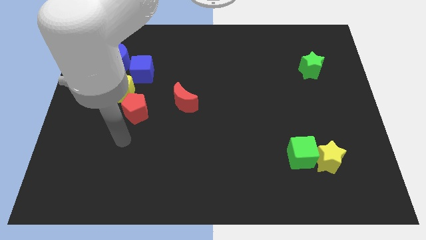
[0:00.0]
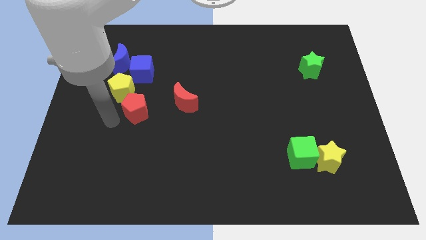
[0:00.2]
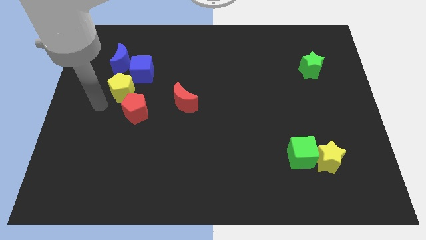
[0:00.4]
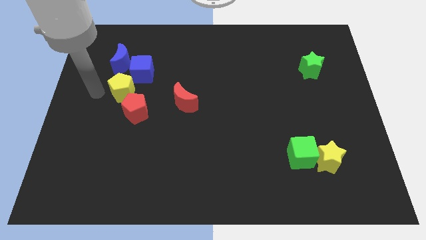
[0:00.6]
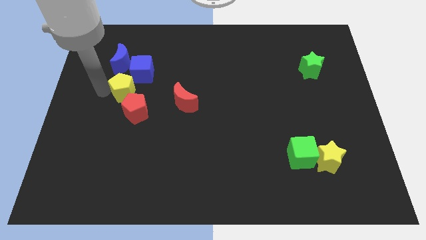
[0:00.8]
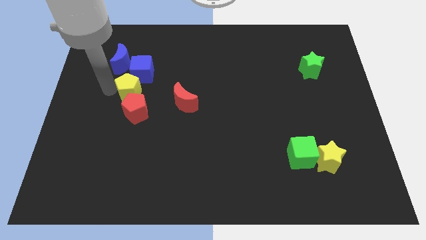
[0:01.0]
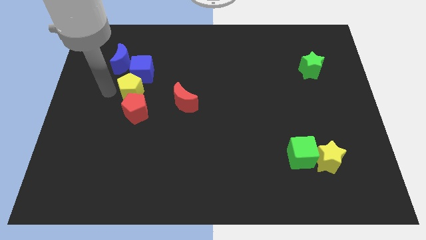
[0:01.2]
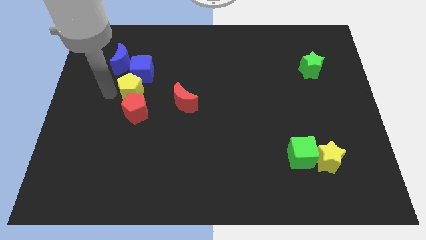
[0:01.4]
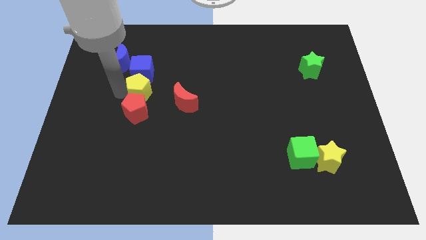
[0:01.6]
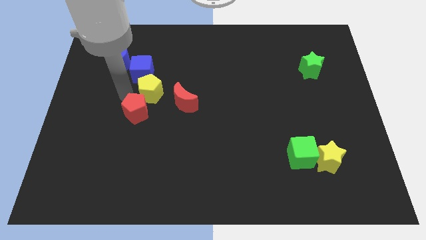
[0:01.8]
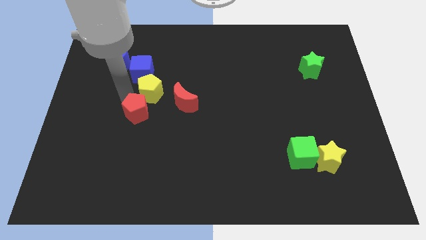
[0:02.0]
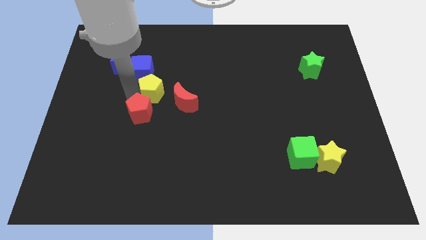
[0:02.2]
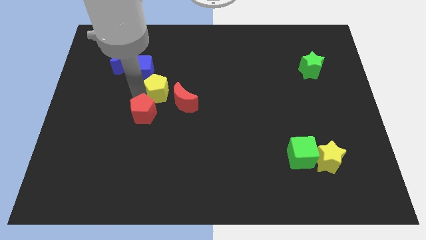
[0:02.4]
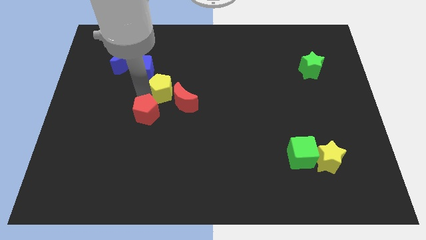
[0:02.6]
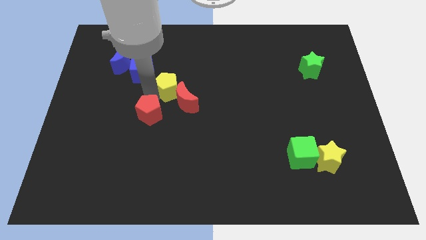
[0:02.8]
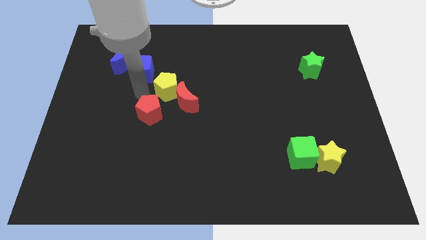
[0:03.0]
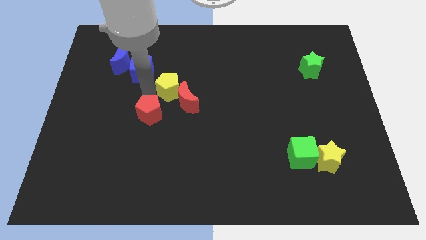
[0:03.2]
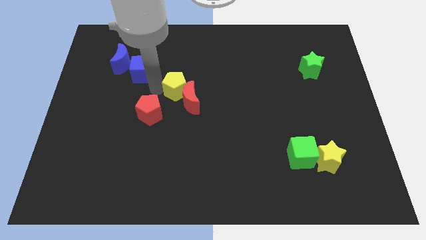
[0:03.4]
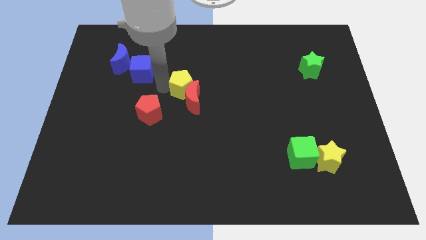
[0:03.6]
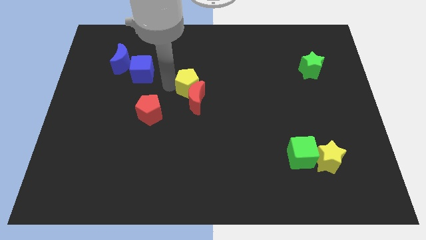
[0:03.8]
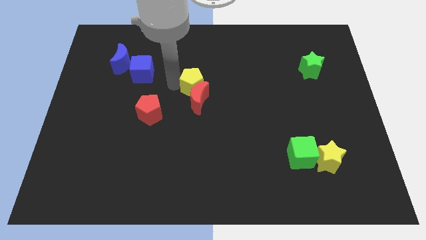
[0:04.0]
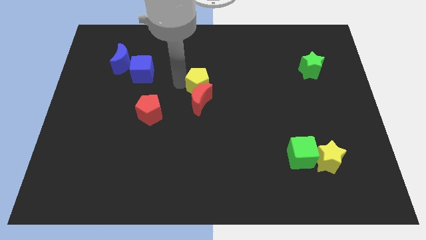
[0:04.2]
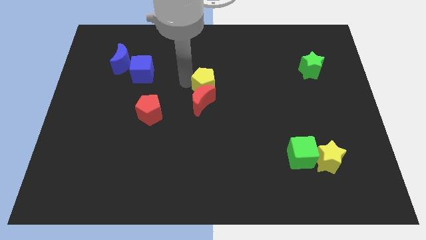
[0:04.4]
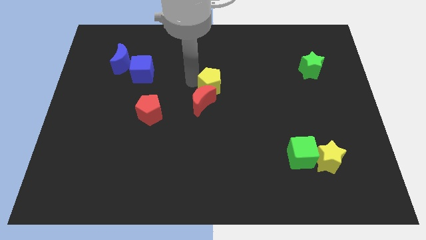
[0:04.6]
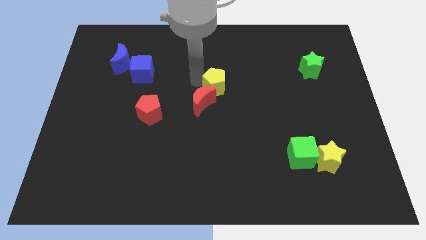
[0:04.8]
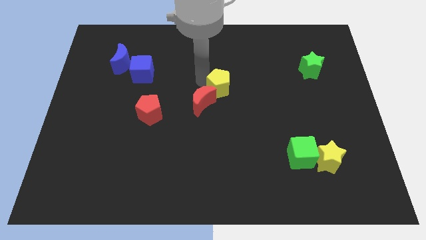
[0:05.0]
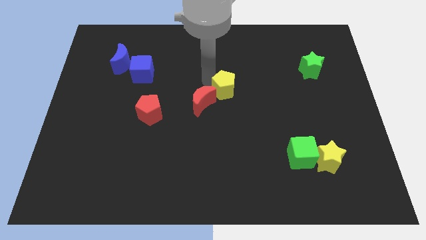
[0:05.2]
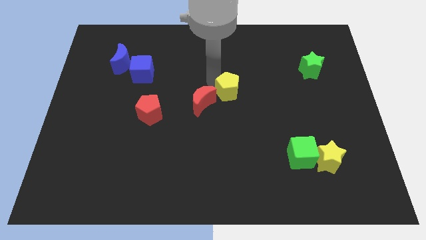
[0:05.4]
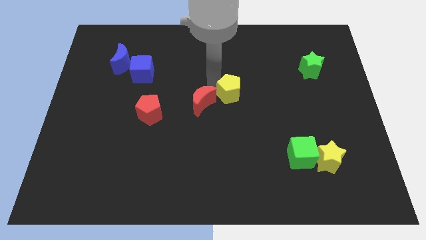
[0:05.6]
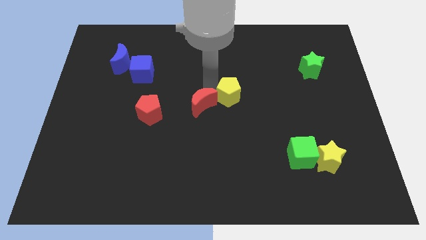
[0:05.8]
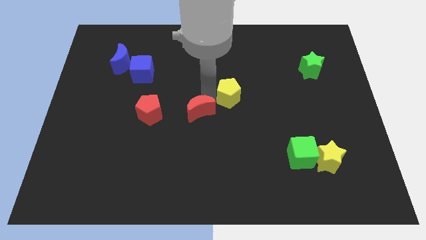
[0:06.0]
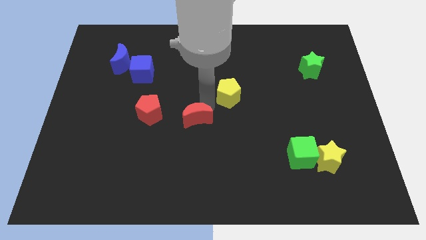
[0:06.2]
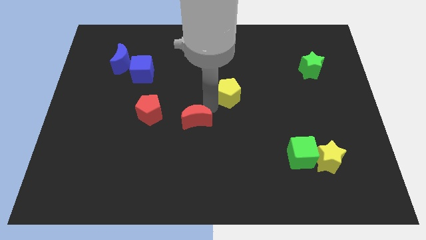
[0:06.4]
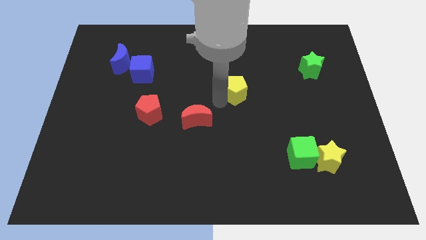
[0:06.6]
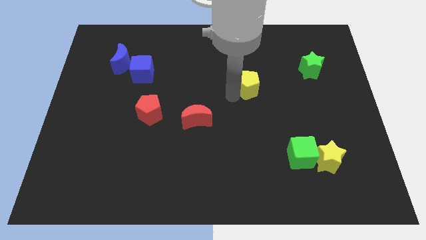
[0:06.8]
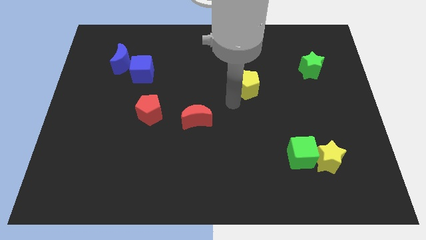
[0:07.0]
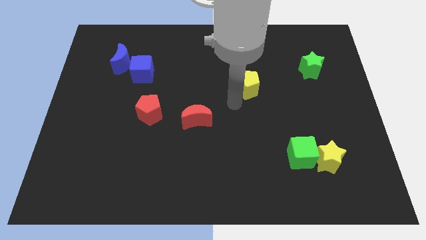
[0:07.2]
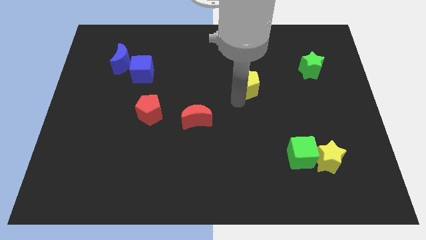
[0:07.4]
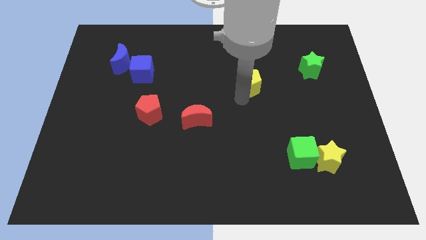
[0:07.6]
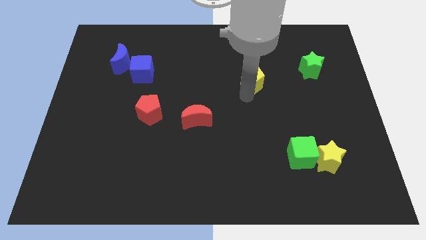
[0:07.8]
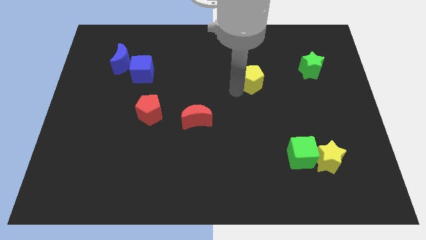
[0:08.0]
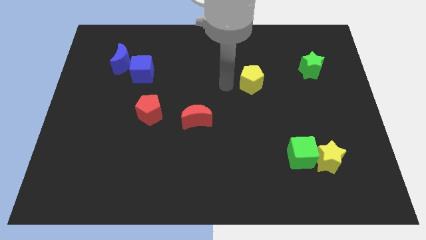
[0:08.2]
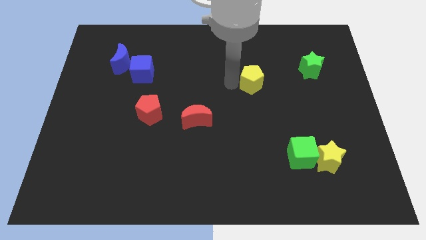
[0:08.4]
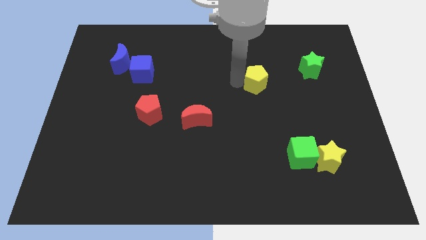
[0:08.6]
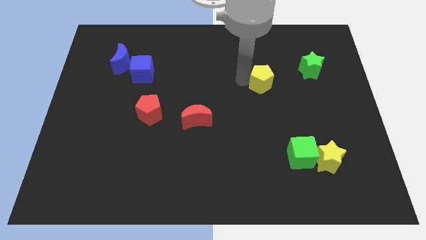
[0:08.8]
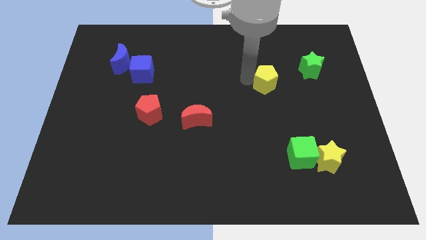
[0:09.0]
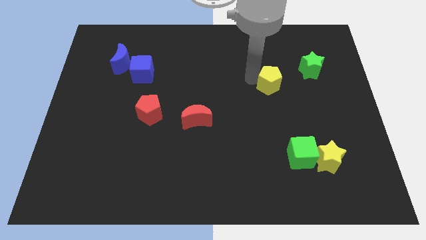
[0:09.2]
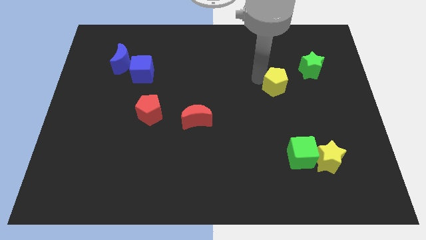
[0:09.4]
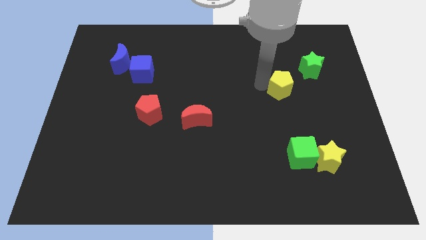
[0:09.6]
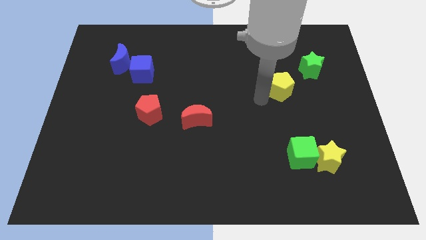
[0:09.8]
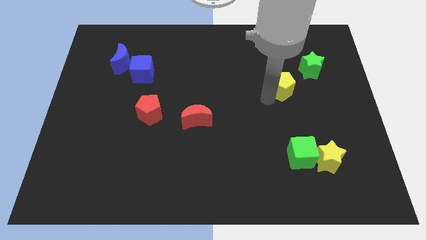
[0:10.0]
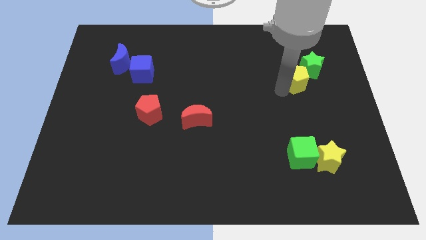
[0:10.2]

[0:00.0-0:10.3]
put the yellow pentagon towards the green star

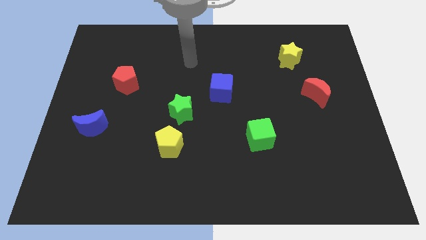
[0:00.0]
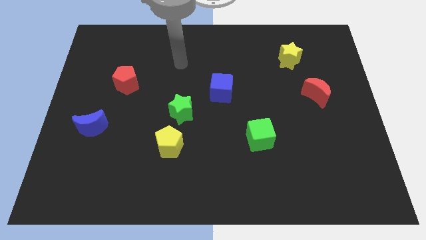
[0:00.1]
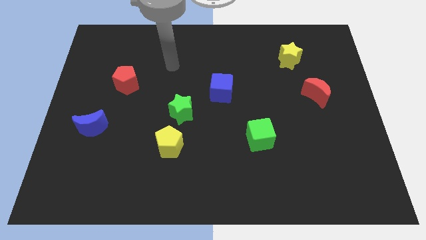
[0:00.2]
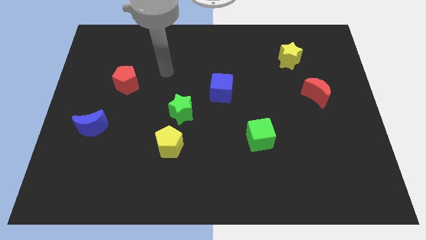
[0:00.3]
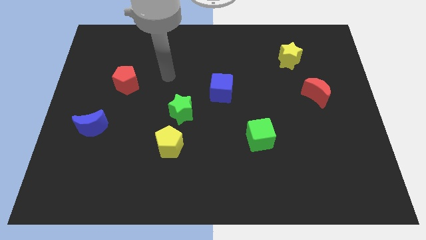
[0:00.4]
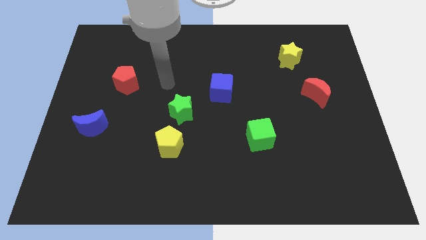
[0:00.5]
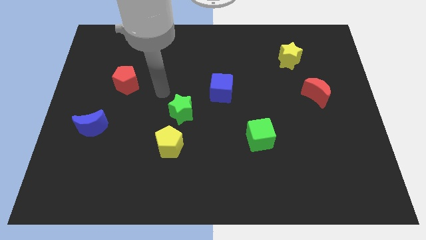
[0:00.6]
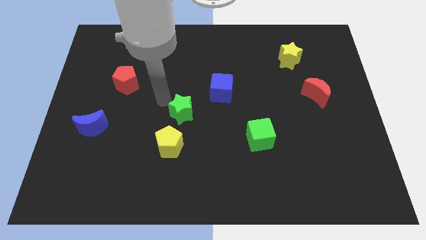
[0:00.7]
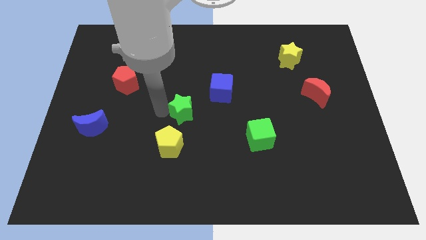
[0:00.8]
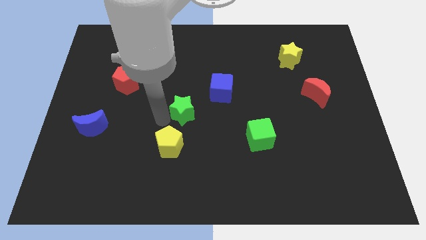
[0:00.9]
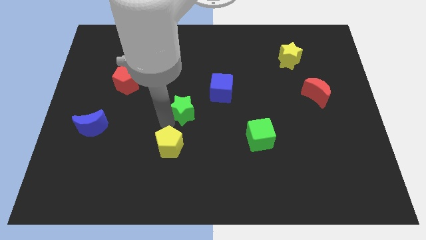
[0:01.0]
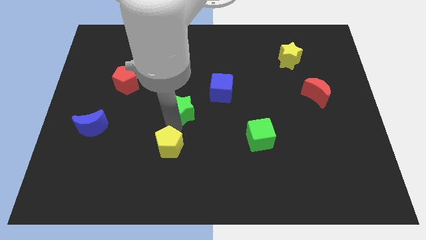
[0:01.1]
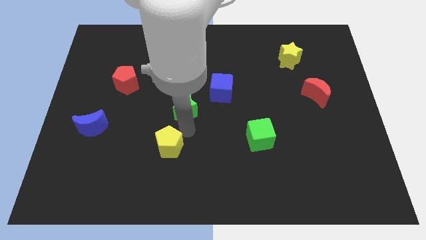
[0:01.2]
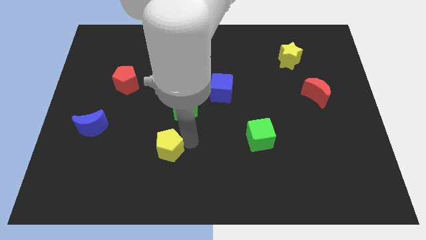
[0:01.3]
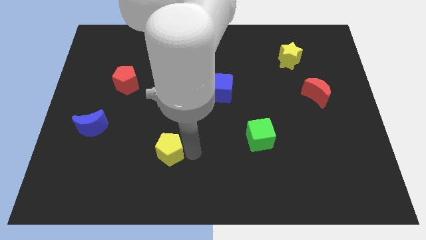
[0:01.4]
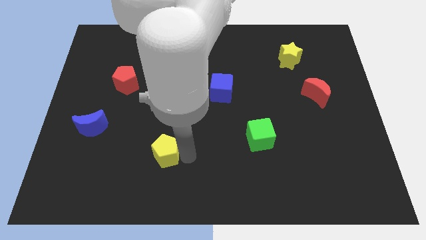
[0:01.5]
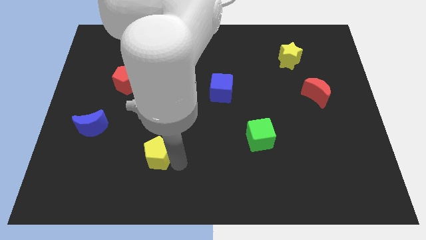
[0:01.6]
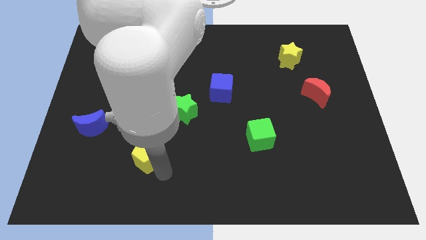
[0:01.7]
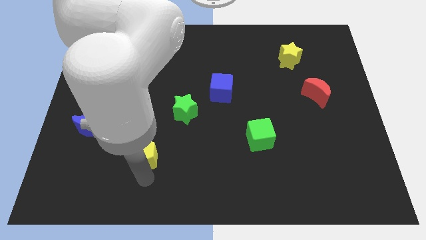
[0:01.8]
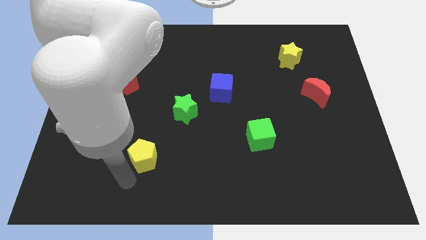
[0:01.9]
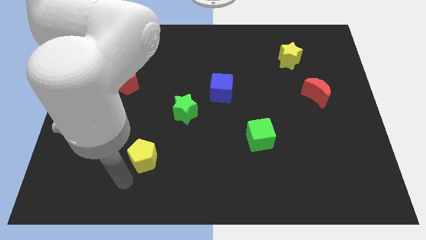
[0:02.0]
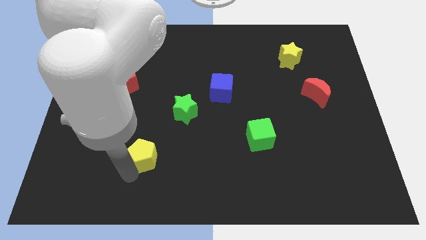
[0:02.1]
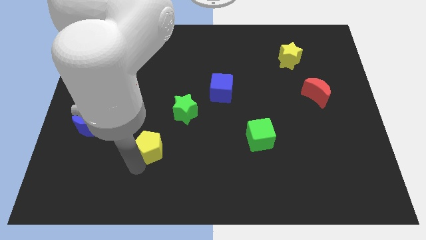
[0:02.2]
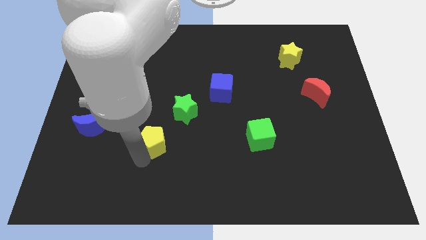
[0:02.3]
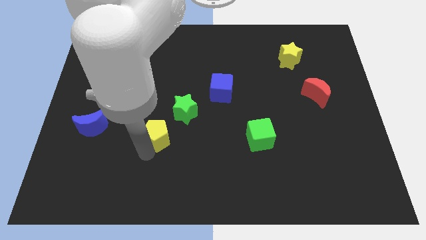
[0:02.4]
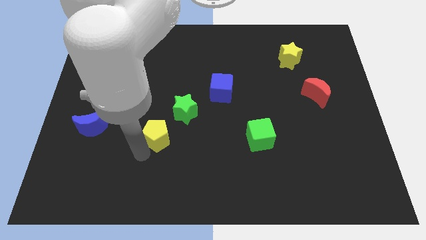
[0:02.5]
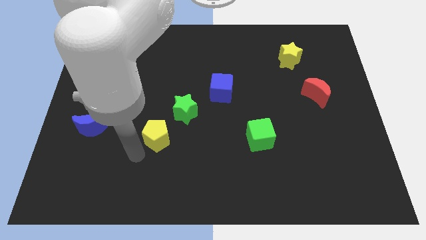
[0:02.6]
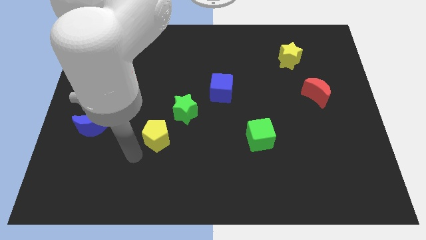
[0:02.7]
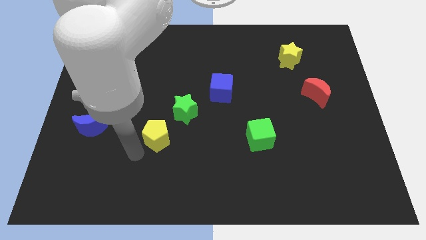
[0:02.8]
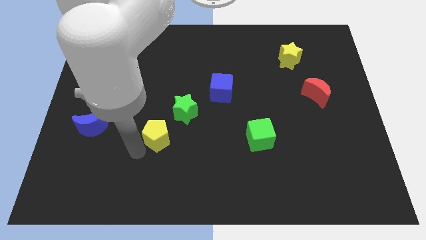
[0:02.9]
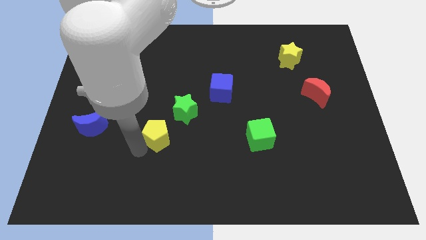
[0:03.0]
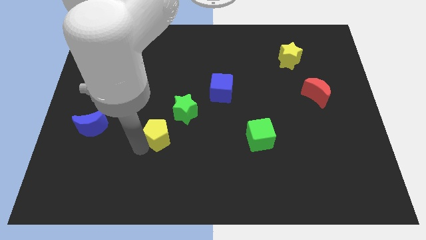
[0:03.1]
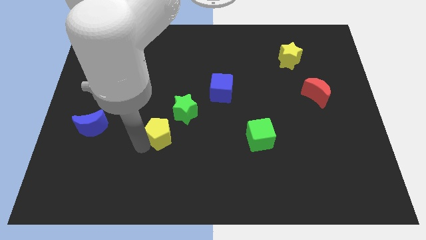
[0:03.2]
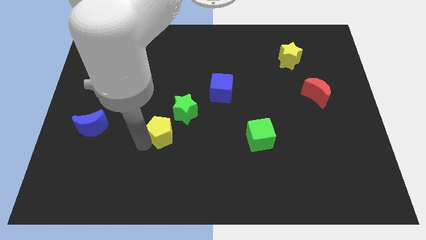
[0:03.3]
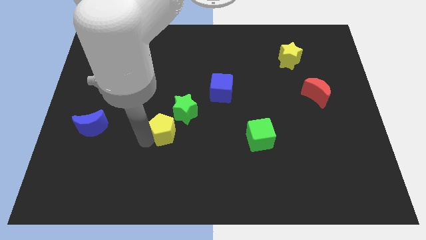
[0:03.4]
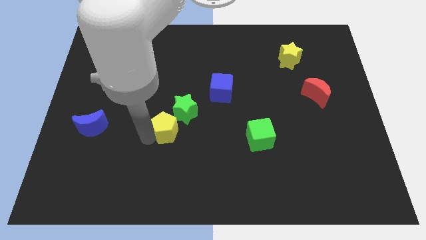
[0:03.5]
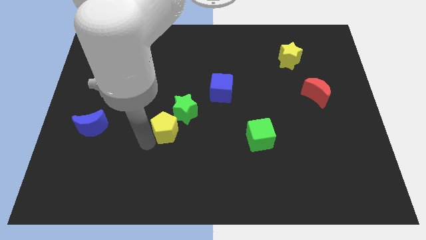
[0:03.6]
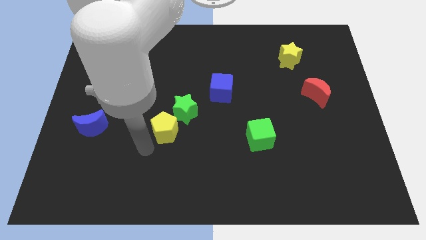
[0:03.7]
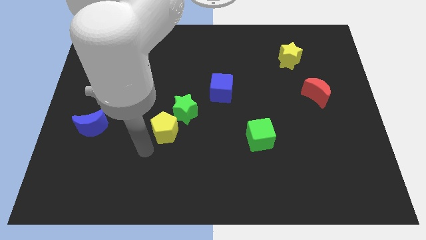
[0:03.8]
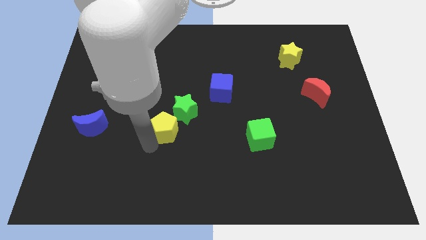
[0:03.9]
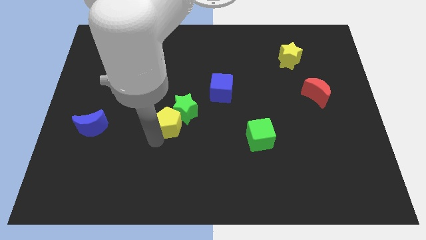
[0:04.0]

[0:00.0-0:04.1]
move the yellow pentagon close to the green star
